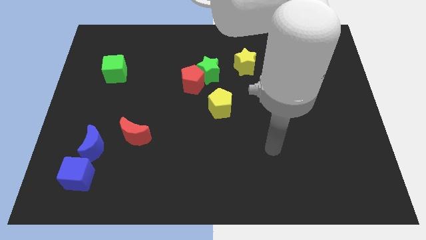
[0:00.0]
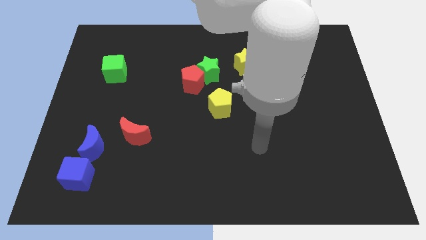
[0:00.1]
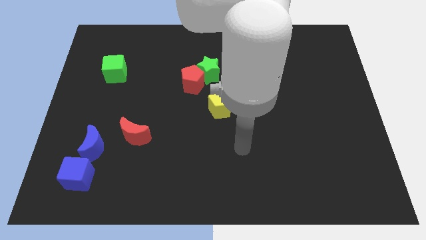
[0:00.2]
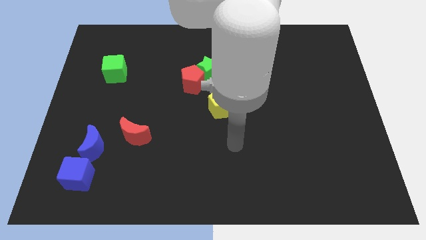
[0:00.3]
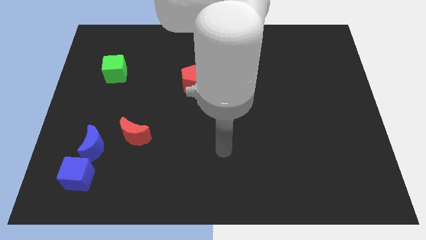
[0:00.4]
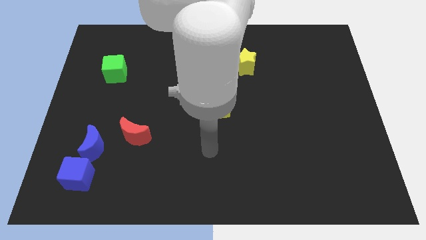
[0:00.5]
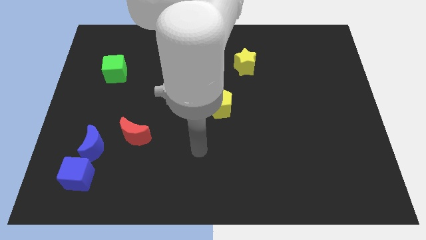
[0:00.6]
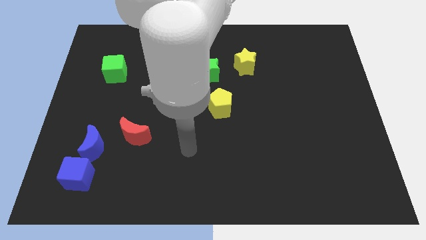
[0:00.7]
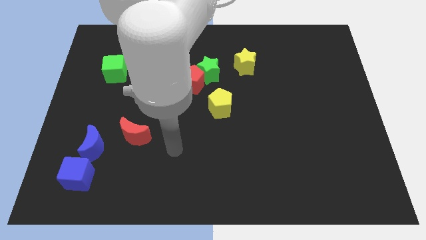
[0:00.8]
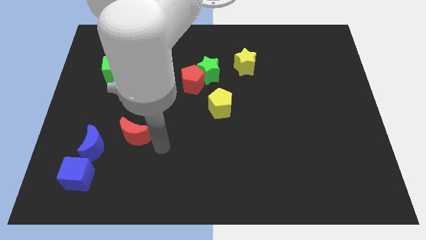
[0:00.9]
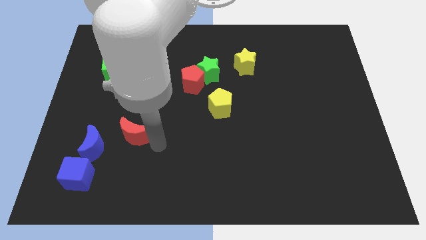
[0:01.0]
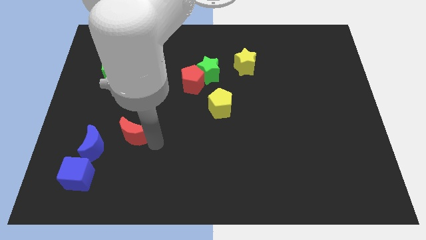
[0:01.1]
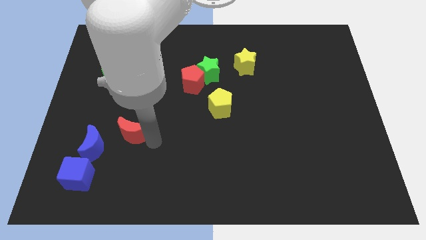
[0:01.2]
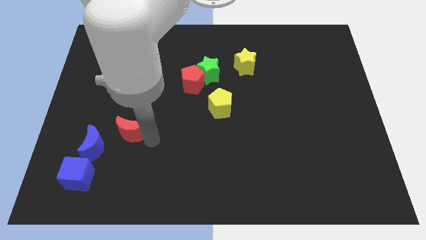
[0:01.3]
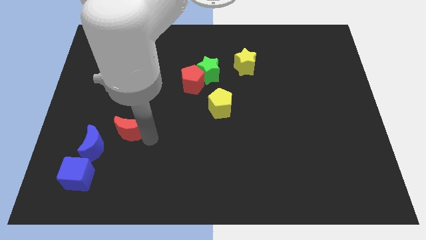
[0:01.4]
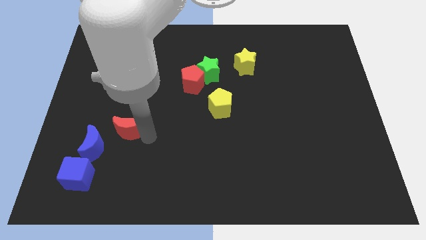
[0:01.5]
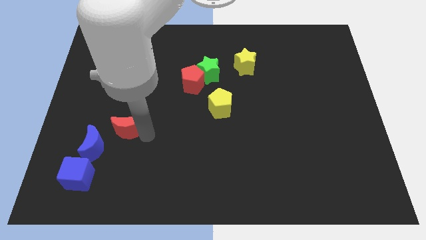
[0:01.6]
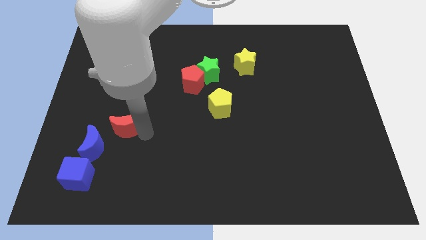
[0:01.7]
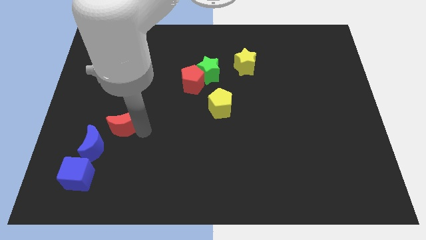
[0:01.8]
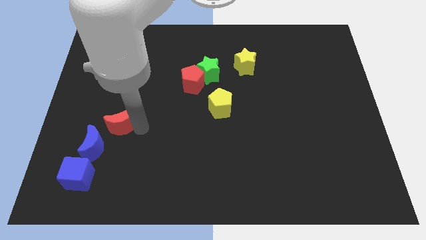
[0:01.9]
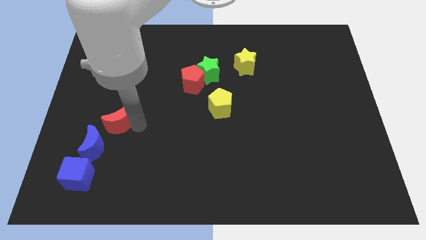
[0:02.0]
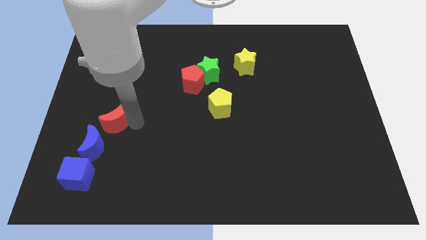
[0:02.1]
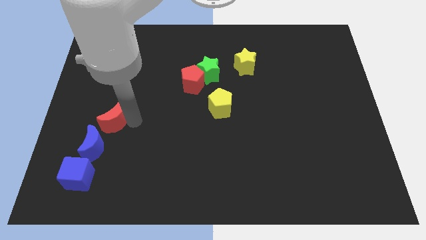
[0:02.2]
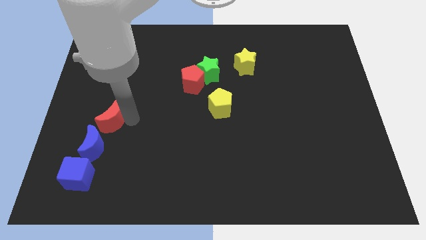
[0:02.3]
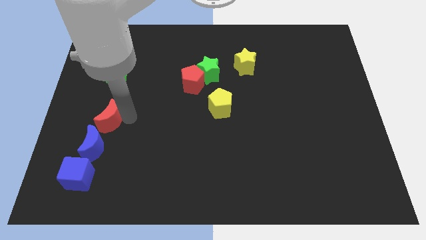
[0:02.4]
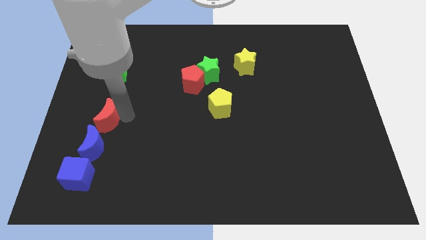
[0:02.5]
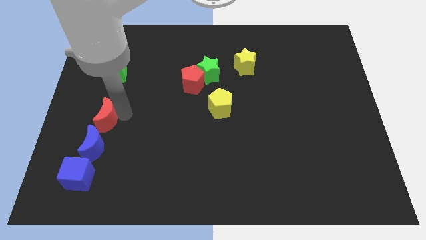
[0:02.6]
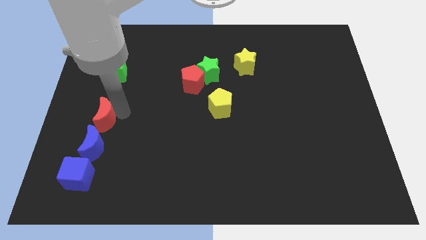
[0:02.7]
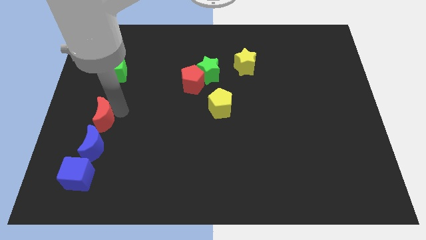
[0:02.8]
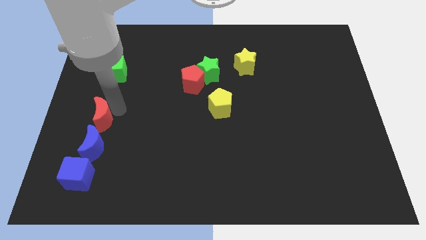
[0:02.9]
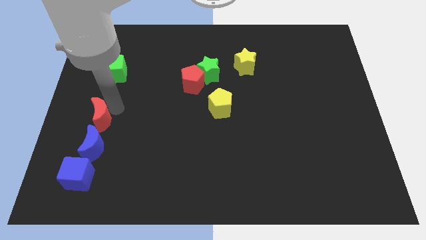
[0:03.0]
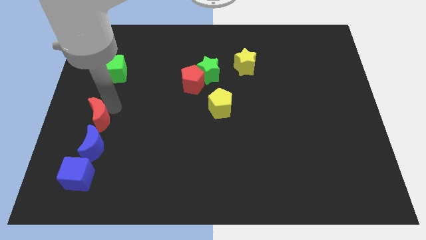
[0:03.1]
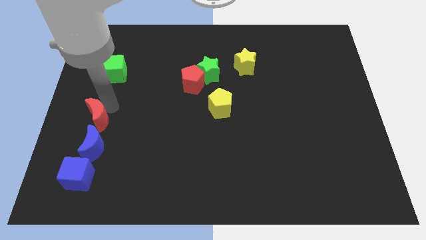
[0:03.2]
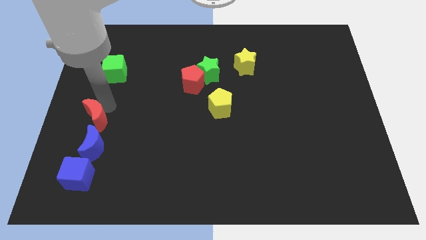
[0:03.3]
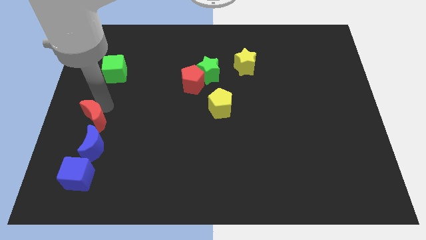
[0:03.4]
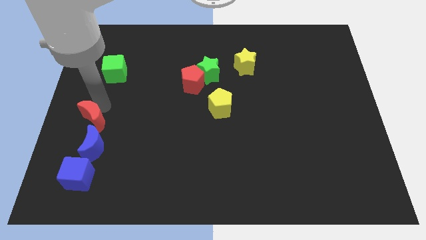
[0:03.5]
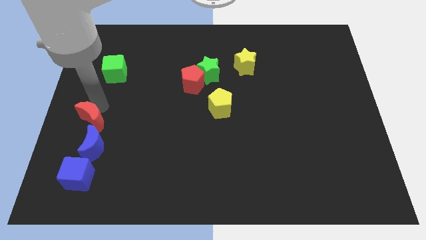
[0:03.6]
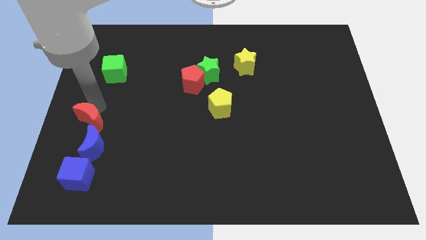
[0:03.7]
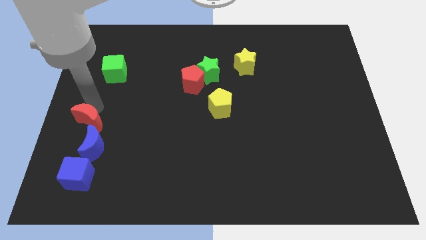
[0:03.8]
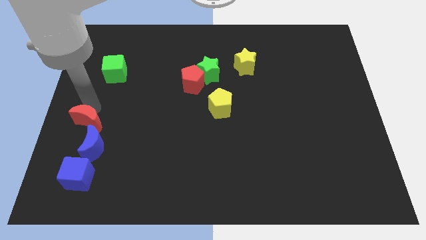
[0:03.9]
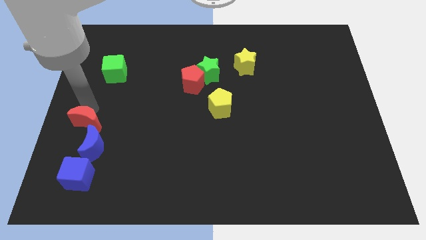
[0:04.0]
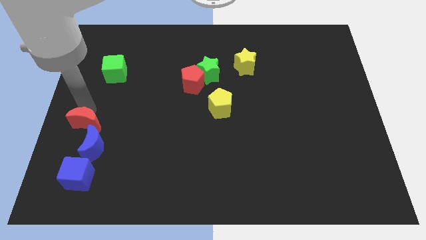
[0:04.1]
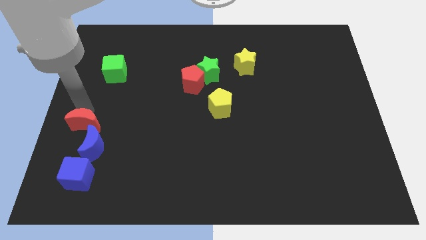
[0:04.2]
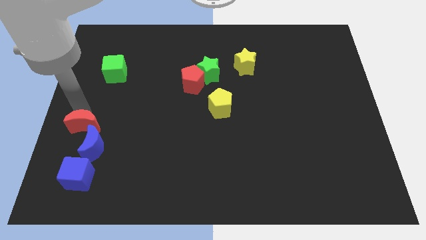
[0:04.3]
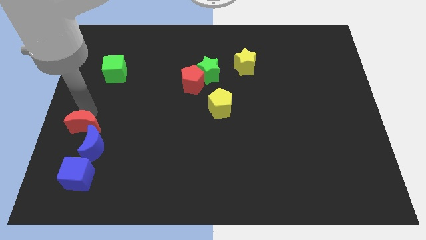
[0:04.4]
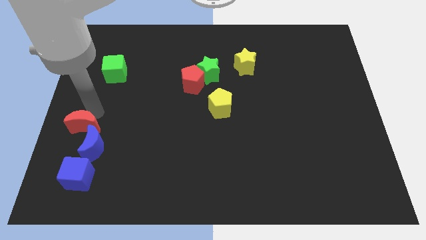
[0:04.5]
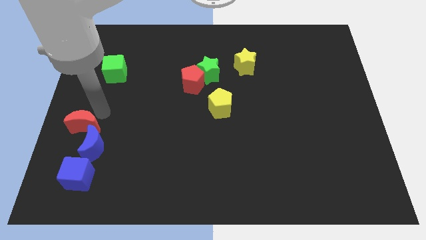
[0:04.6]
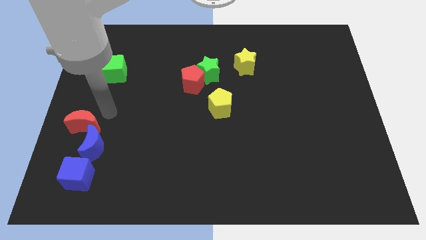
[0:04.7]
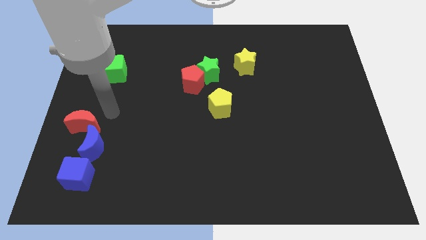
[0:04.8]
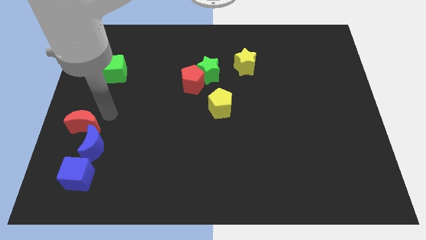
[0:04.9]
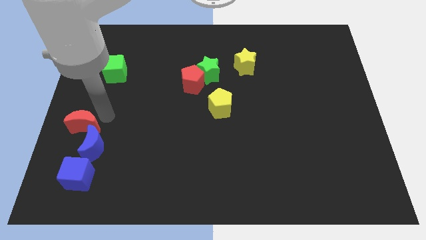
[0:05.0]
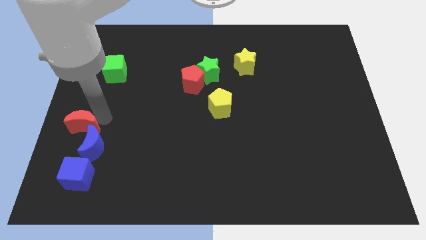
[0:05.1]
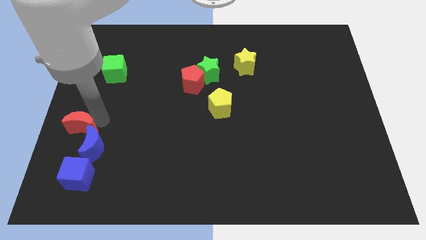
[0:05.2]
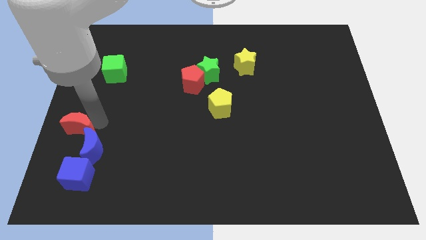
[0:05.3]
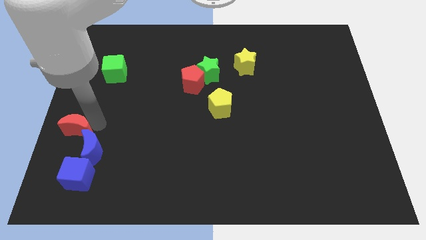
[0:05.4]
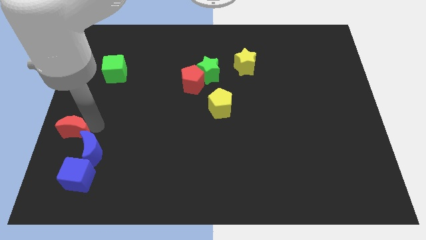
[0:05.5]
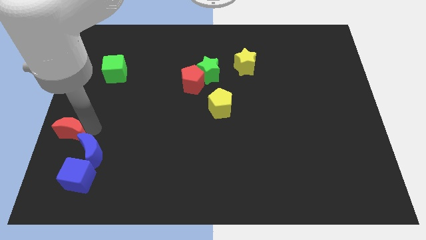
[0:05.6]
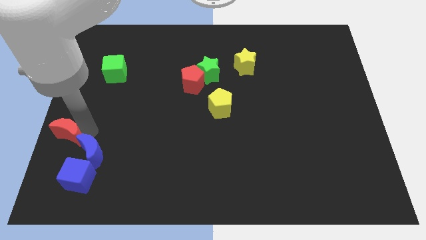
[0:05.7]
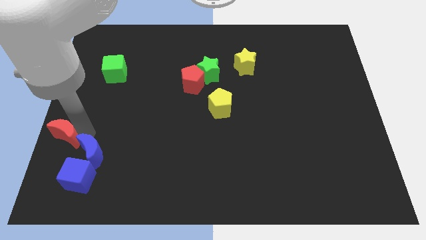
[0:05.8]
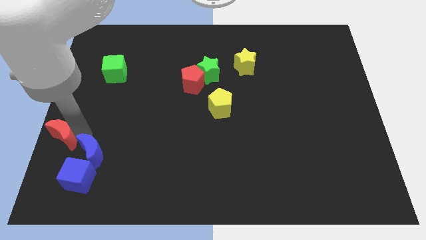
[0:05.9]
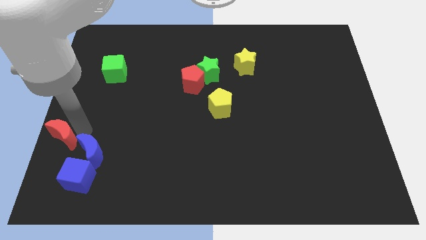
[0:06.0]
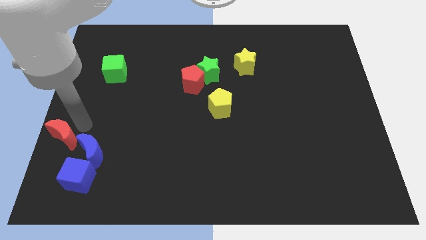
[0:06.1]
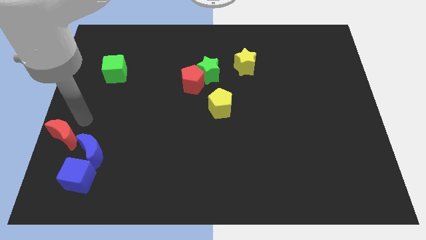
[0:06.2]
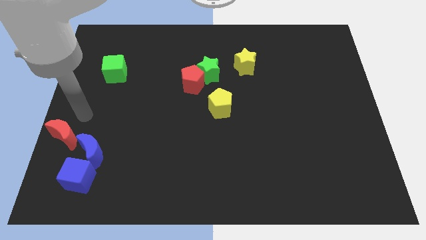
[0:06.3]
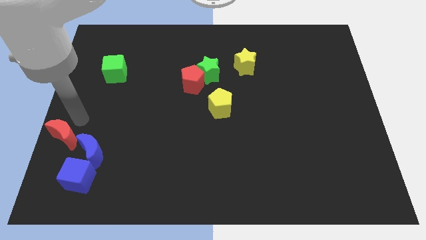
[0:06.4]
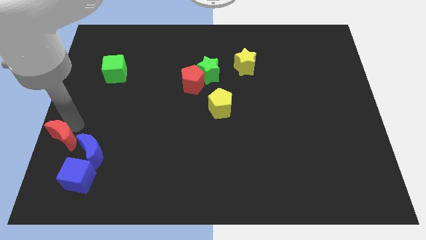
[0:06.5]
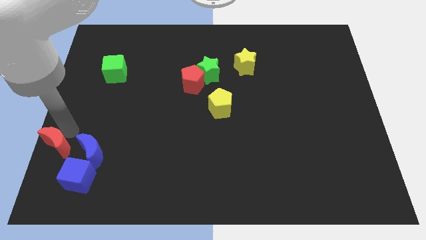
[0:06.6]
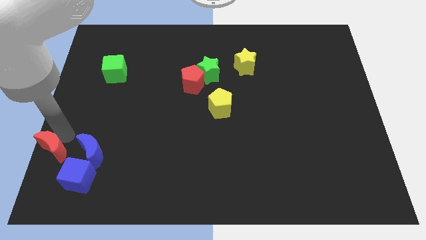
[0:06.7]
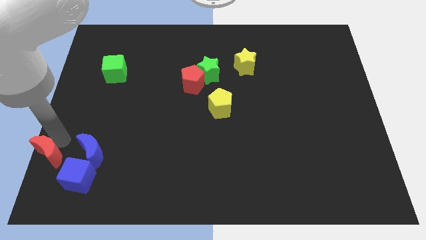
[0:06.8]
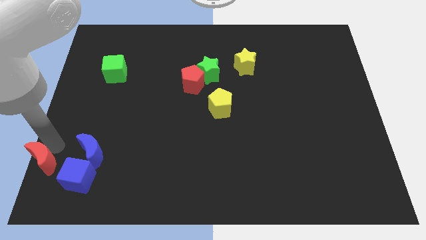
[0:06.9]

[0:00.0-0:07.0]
move the red moon to the bottom left of the board

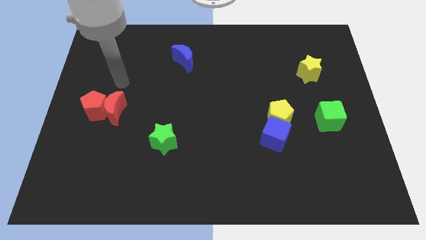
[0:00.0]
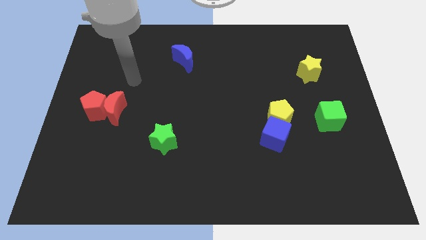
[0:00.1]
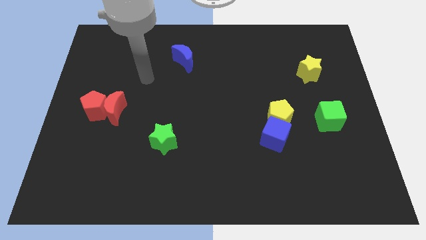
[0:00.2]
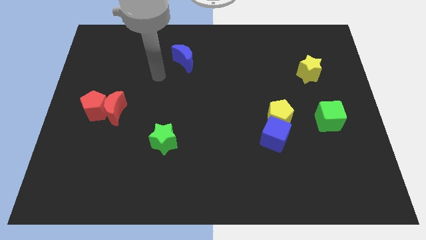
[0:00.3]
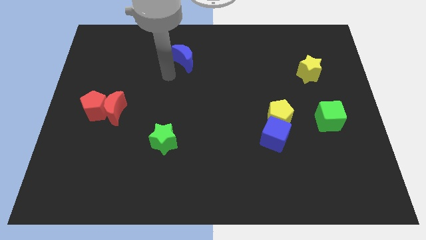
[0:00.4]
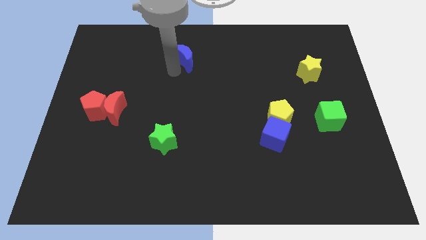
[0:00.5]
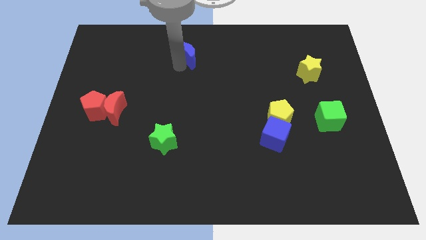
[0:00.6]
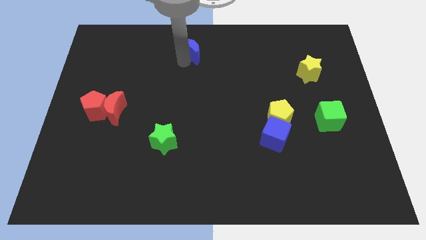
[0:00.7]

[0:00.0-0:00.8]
push the blue moon to the top
